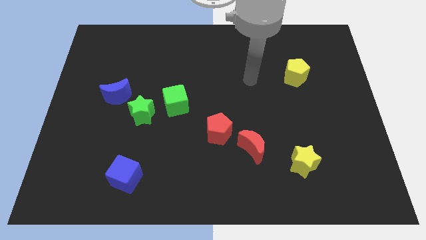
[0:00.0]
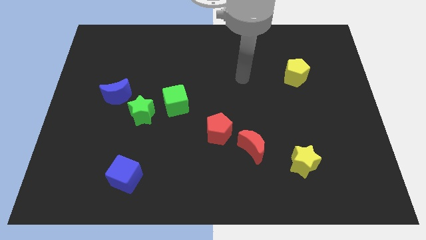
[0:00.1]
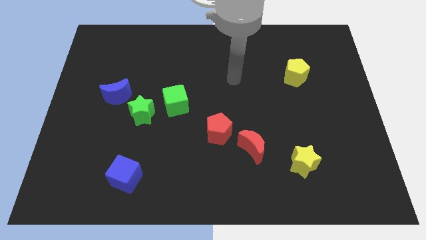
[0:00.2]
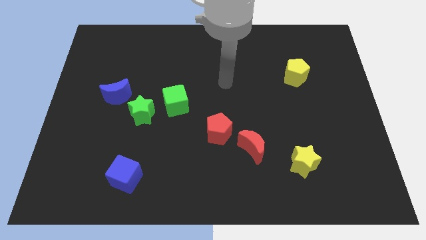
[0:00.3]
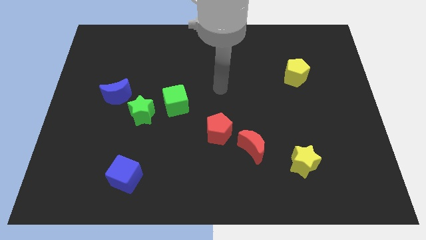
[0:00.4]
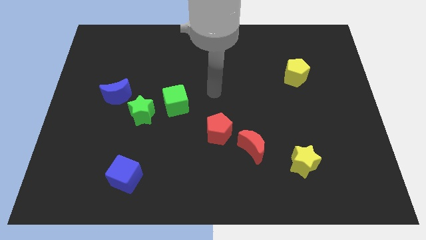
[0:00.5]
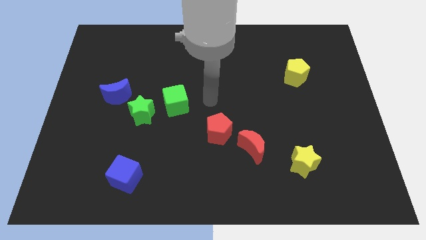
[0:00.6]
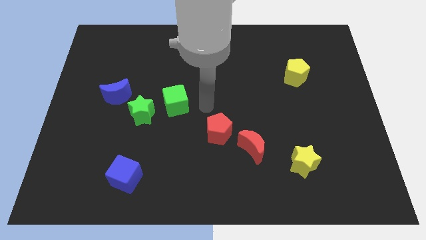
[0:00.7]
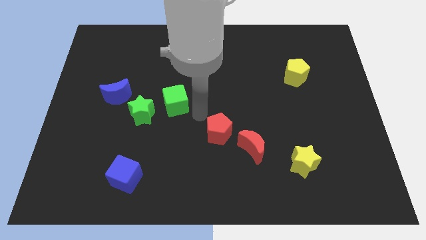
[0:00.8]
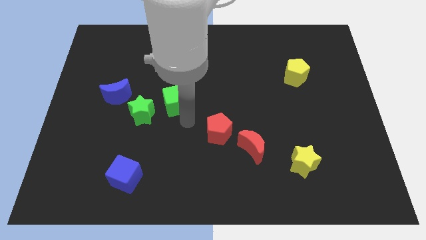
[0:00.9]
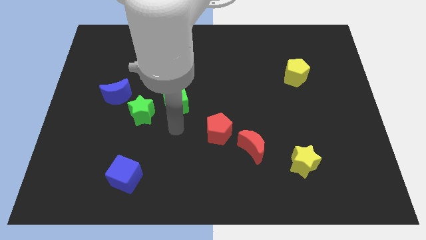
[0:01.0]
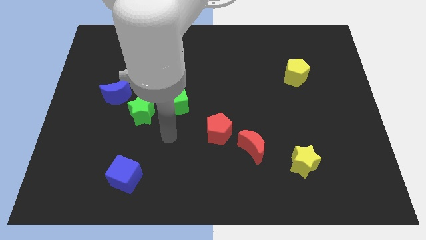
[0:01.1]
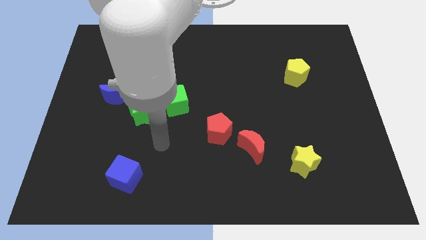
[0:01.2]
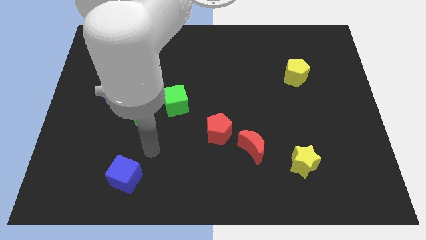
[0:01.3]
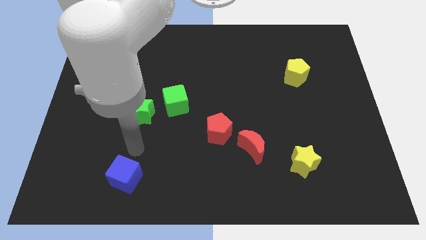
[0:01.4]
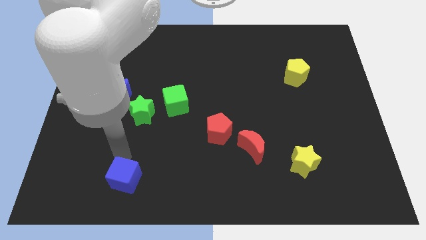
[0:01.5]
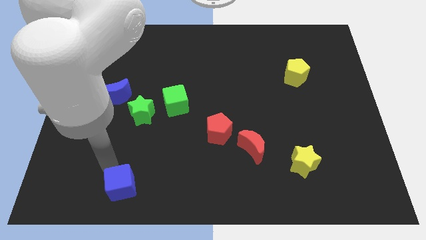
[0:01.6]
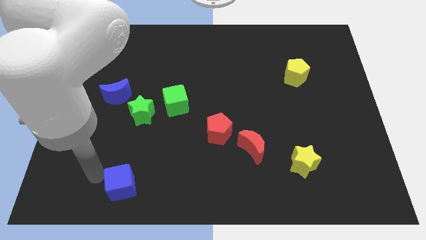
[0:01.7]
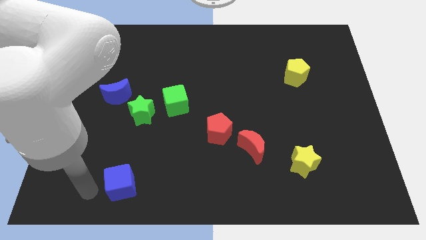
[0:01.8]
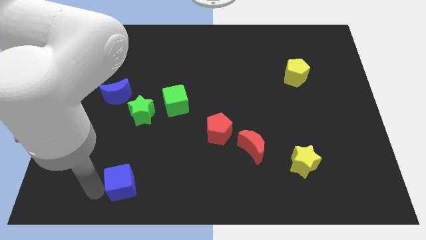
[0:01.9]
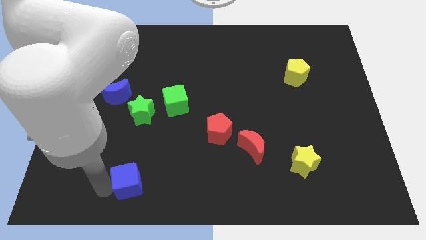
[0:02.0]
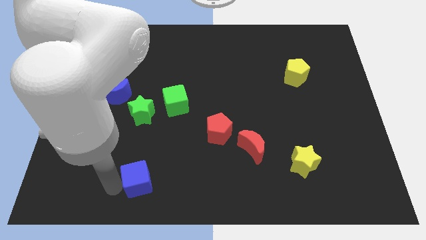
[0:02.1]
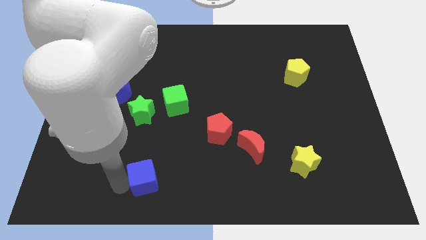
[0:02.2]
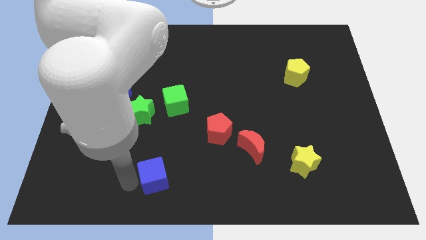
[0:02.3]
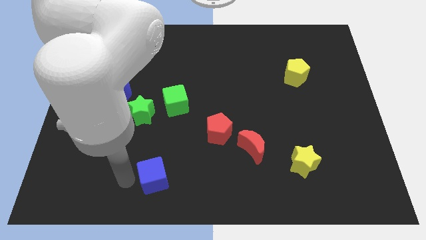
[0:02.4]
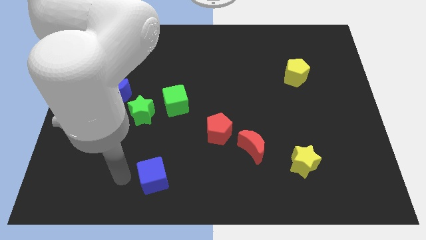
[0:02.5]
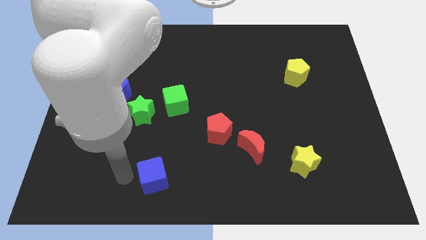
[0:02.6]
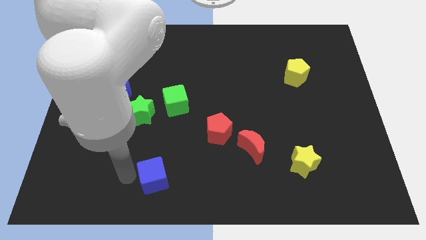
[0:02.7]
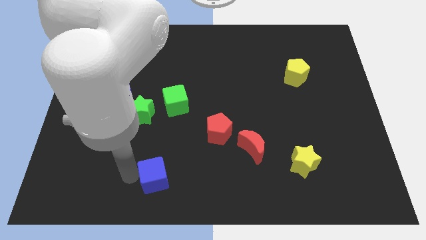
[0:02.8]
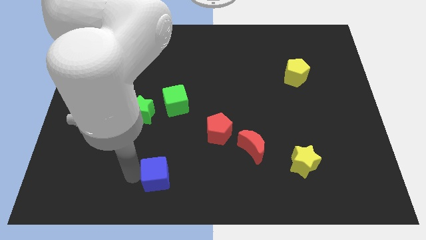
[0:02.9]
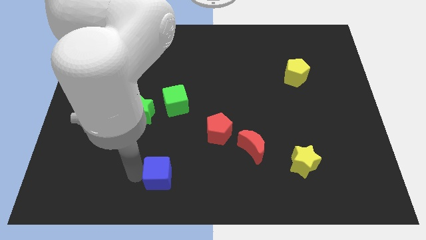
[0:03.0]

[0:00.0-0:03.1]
push the blue cube slightly to the right

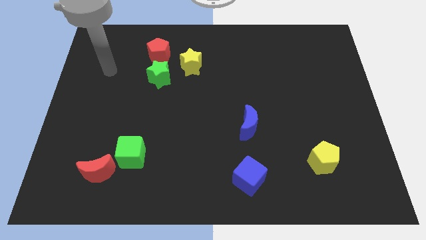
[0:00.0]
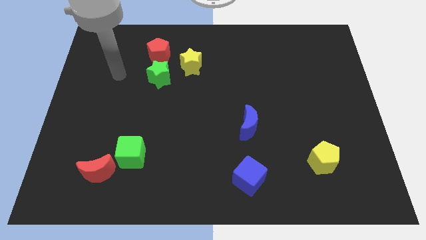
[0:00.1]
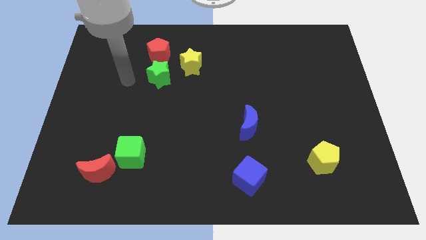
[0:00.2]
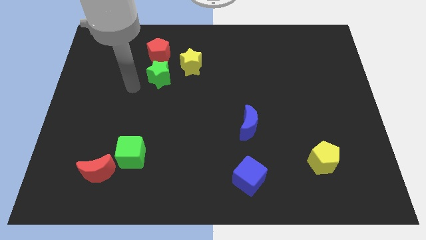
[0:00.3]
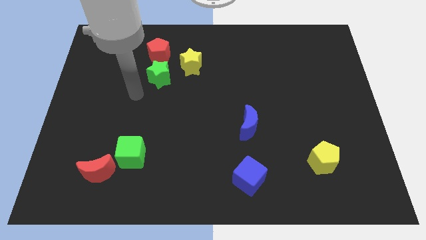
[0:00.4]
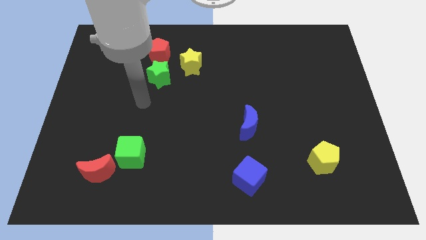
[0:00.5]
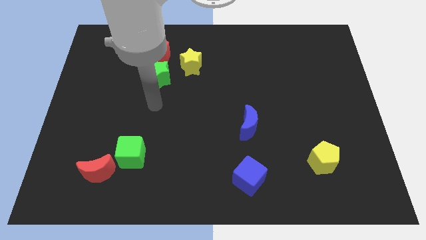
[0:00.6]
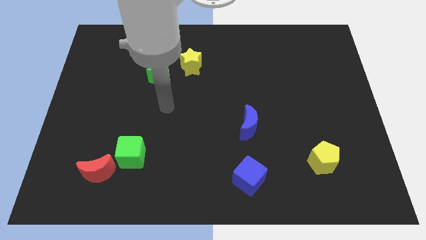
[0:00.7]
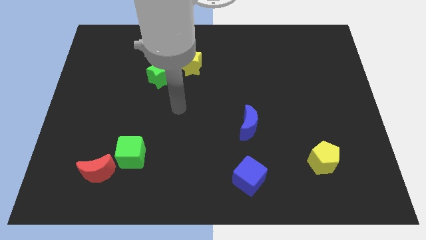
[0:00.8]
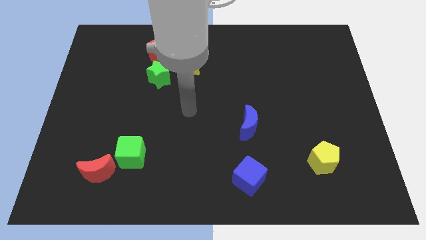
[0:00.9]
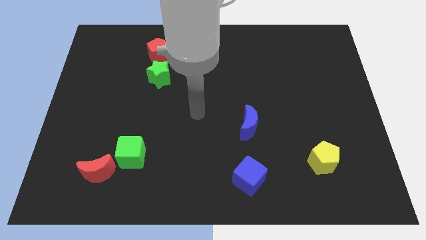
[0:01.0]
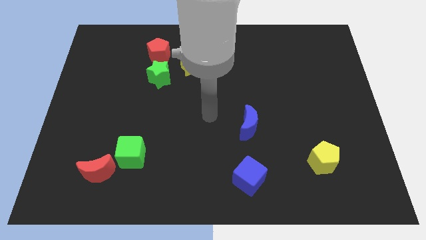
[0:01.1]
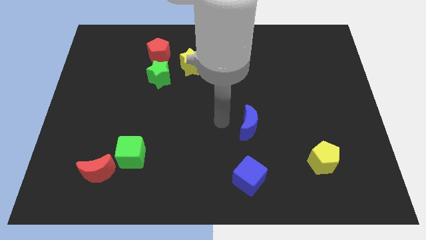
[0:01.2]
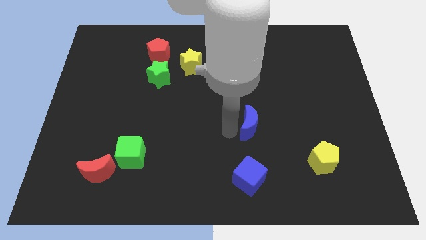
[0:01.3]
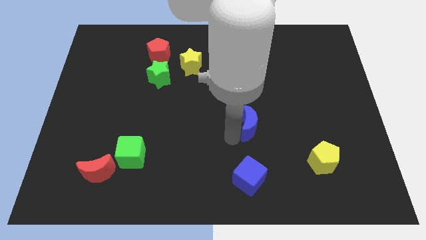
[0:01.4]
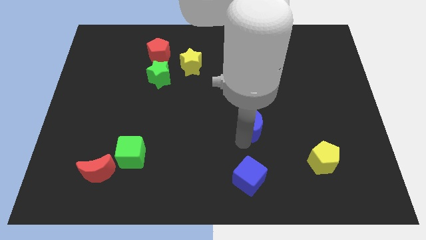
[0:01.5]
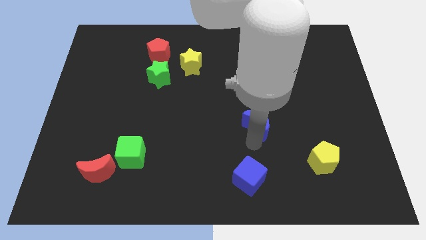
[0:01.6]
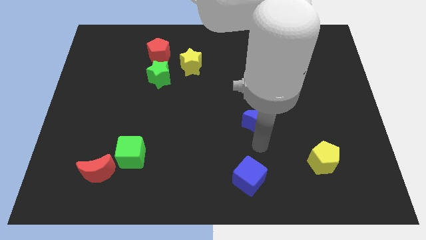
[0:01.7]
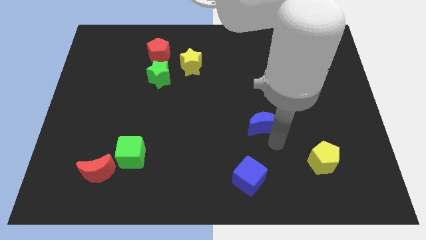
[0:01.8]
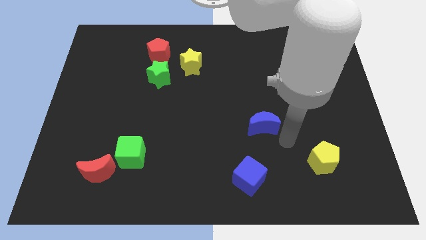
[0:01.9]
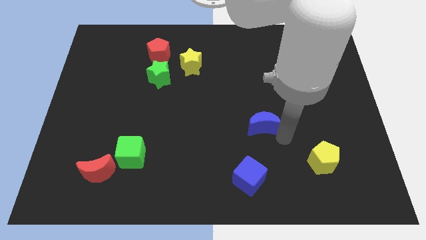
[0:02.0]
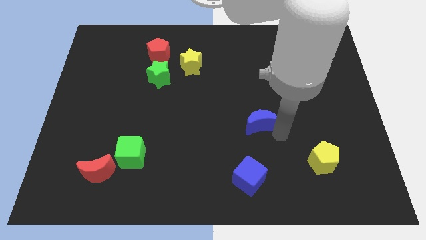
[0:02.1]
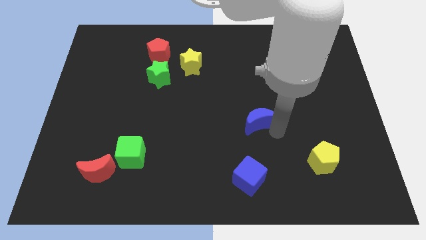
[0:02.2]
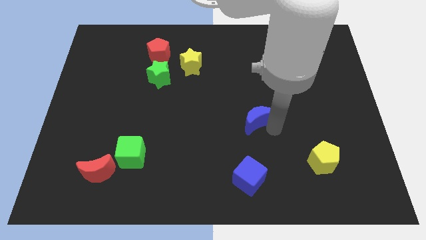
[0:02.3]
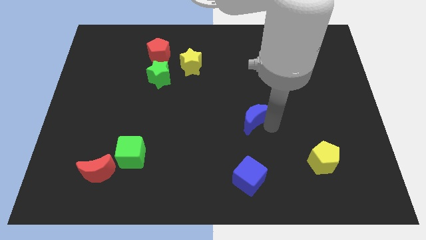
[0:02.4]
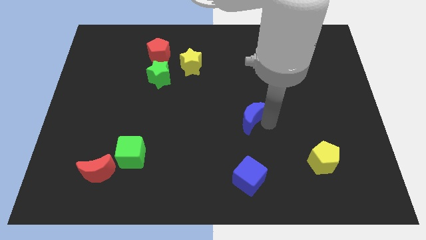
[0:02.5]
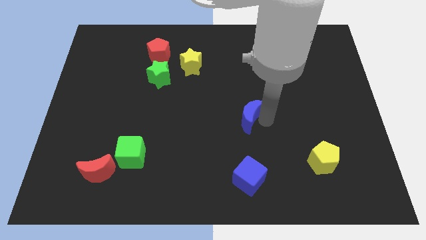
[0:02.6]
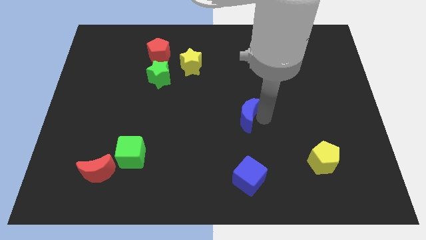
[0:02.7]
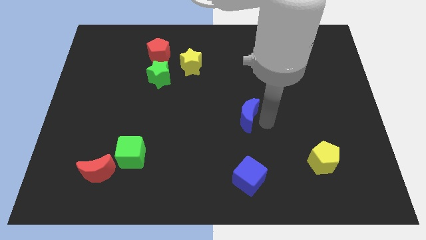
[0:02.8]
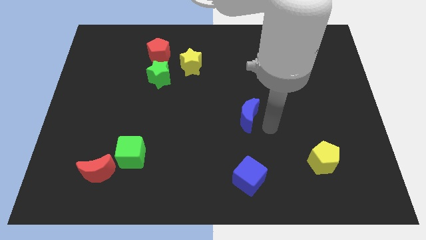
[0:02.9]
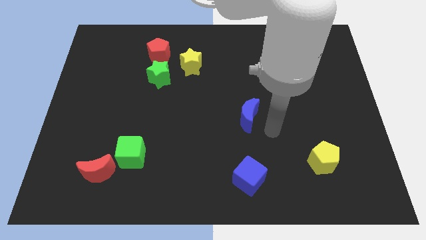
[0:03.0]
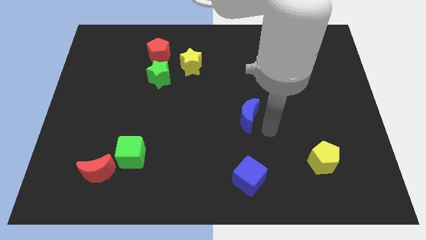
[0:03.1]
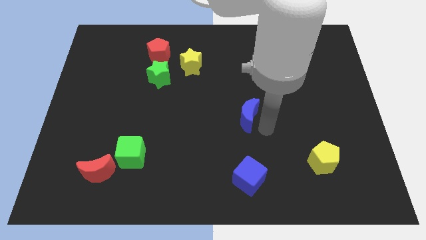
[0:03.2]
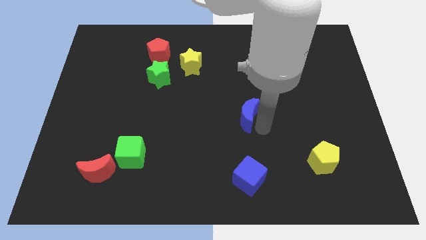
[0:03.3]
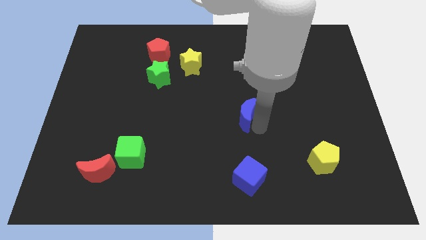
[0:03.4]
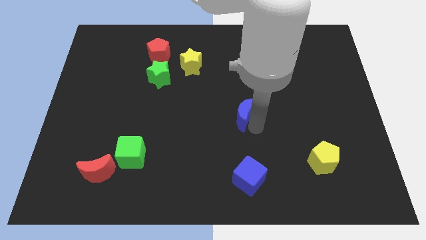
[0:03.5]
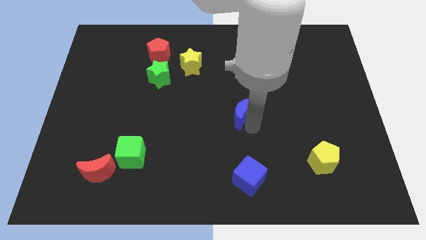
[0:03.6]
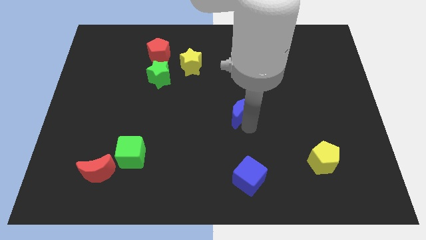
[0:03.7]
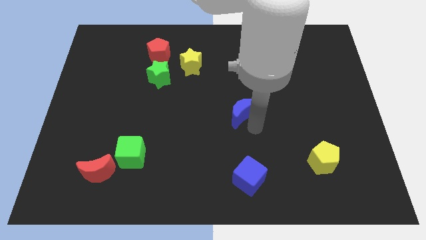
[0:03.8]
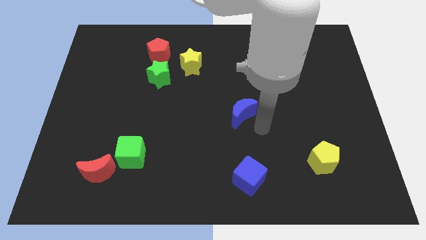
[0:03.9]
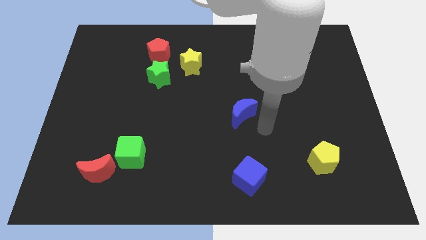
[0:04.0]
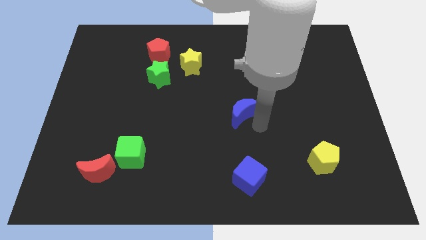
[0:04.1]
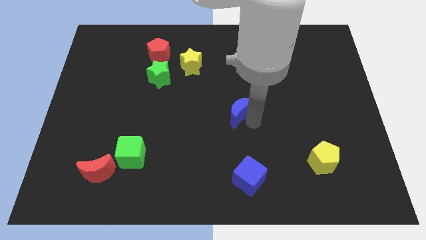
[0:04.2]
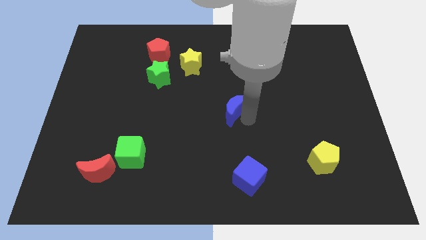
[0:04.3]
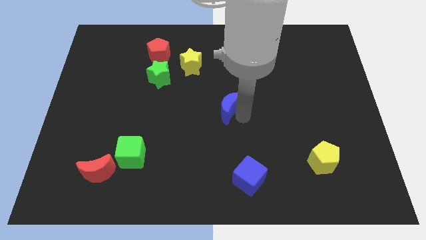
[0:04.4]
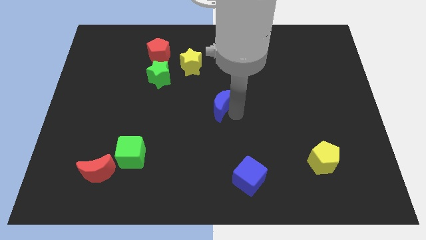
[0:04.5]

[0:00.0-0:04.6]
slide the blue moon slightly up and to the left

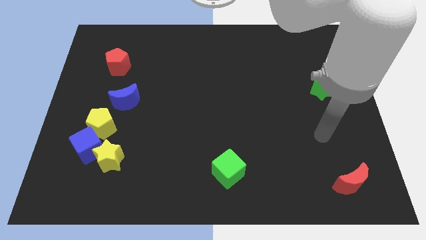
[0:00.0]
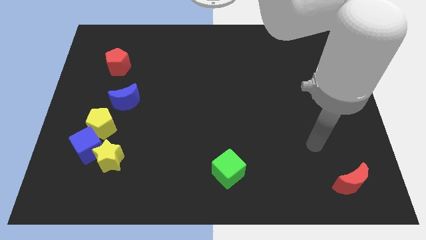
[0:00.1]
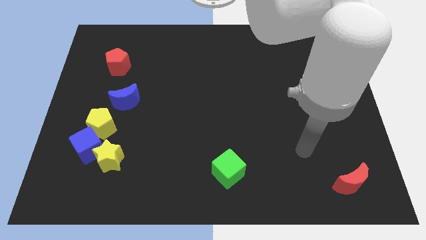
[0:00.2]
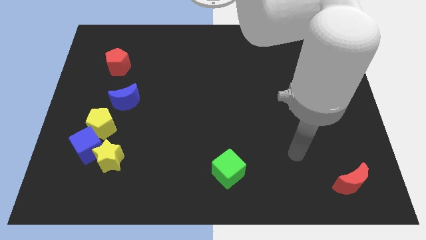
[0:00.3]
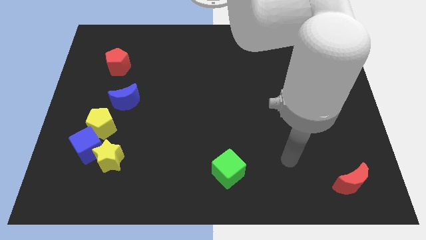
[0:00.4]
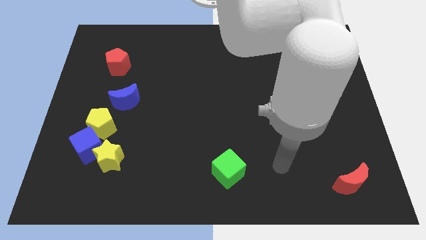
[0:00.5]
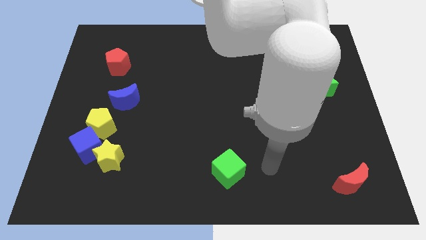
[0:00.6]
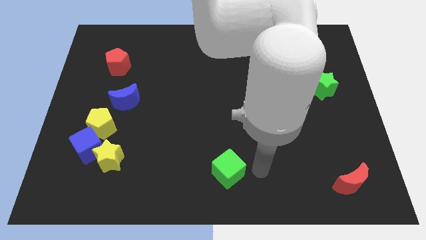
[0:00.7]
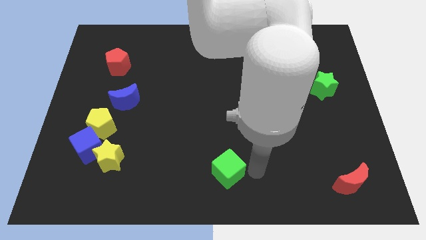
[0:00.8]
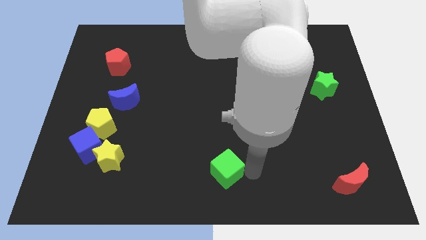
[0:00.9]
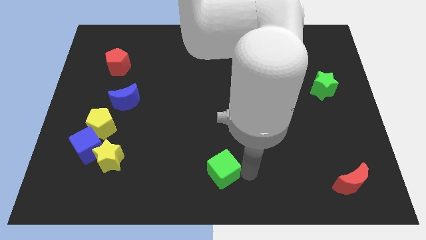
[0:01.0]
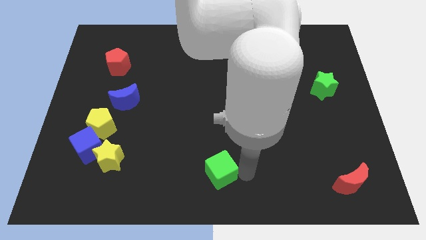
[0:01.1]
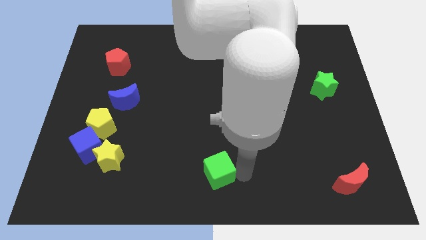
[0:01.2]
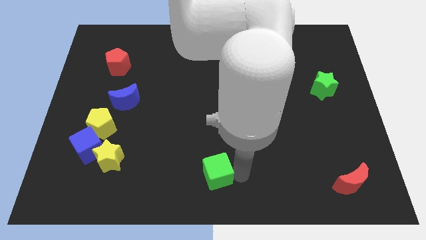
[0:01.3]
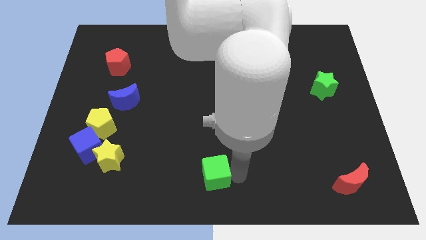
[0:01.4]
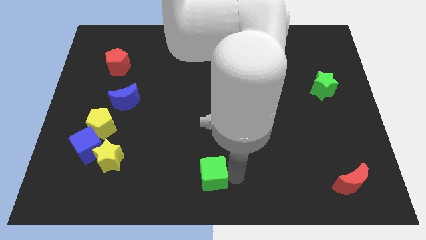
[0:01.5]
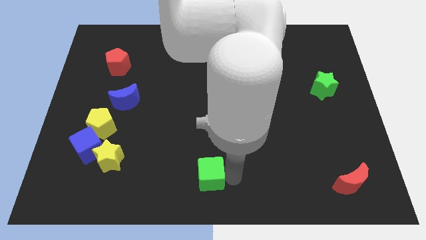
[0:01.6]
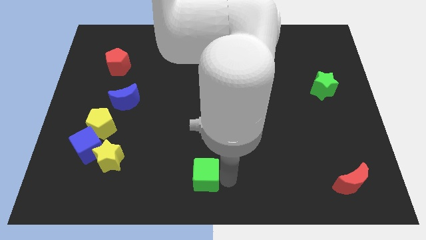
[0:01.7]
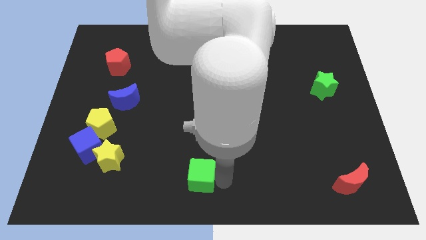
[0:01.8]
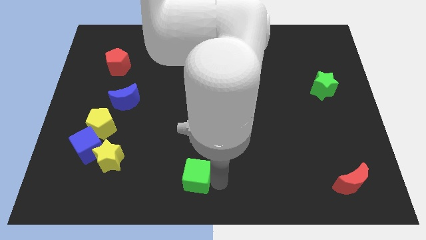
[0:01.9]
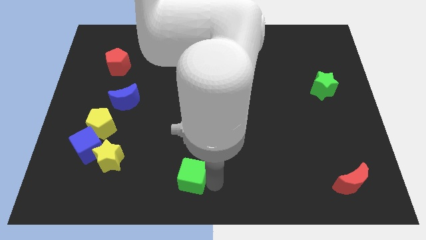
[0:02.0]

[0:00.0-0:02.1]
move the green cube to the left somewhat
